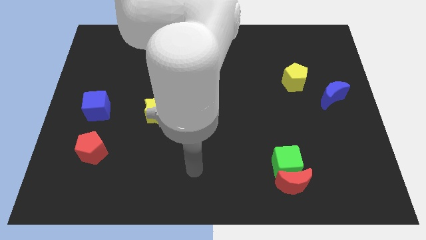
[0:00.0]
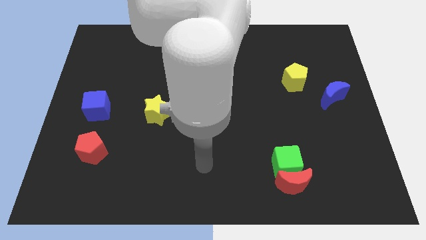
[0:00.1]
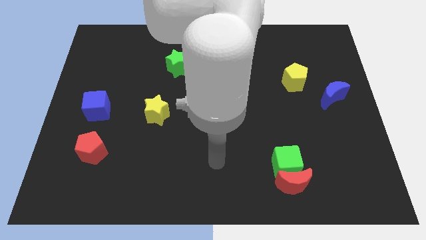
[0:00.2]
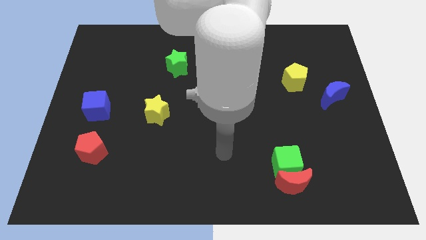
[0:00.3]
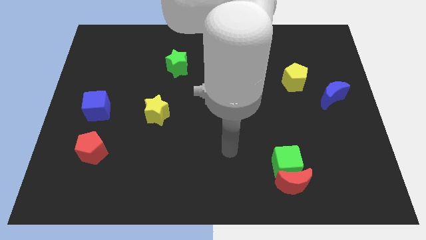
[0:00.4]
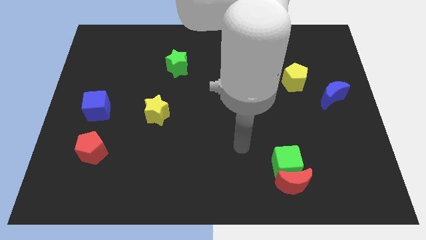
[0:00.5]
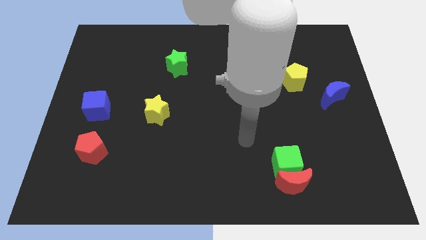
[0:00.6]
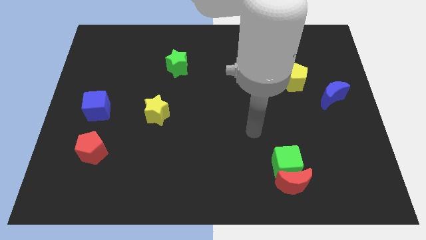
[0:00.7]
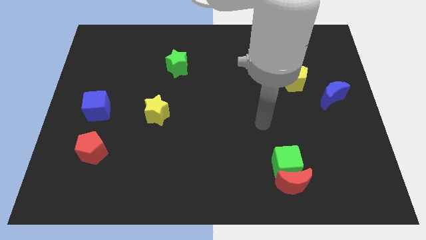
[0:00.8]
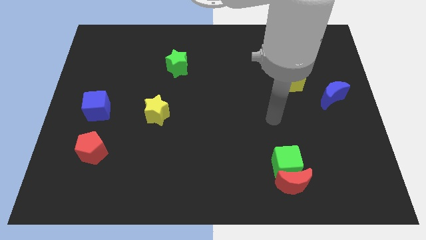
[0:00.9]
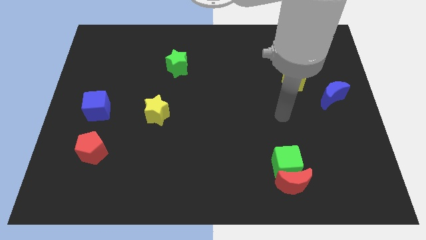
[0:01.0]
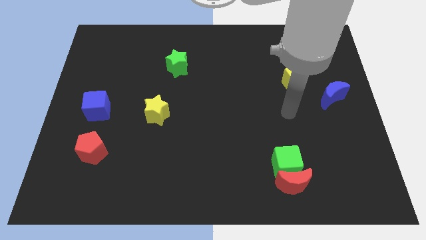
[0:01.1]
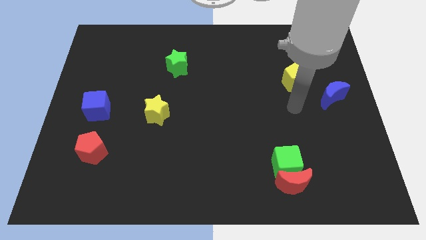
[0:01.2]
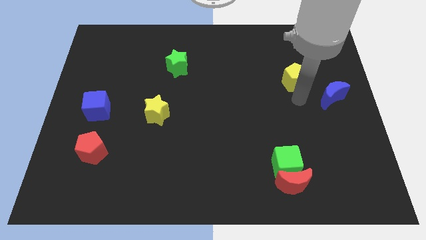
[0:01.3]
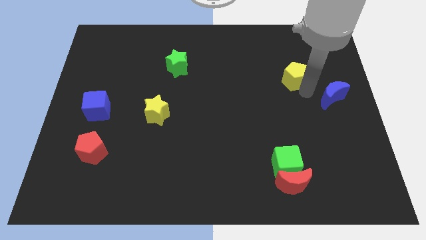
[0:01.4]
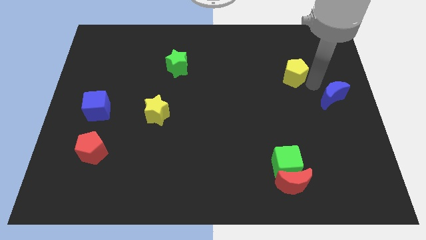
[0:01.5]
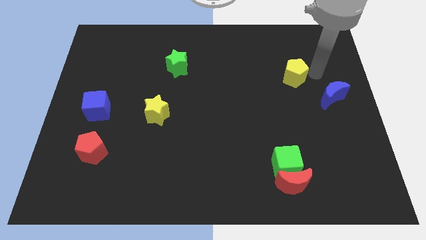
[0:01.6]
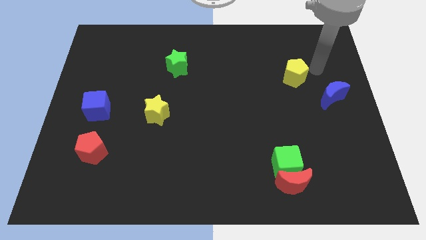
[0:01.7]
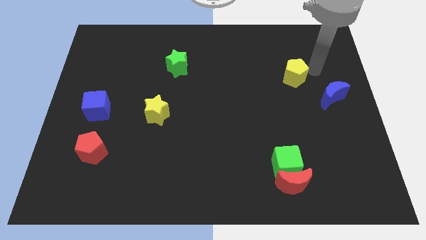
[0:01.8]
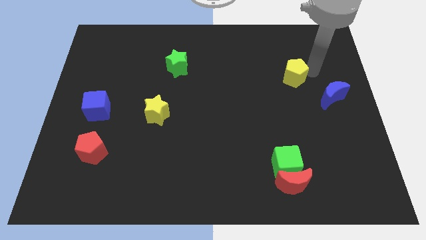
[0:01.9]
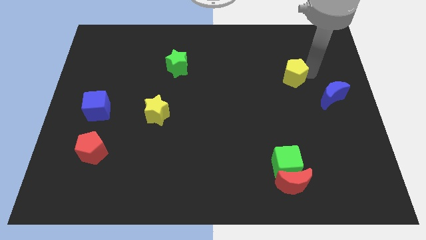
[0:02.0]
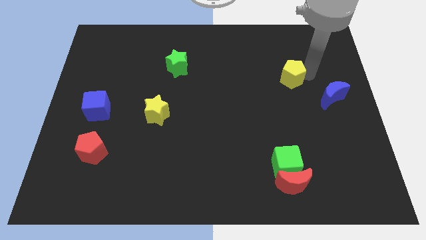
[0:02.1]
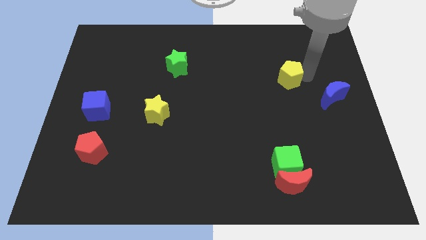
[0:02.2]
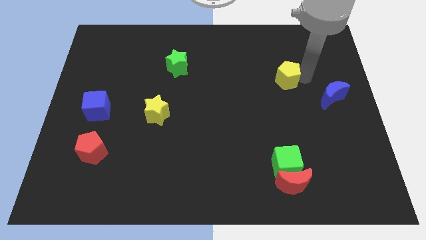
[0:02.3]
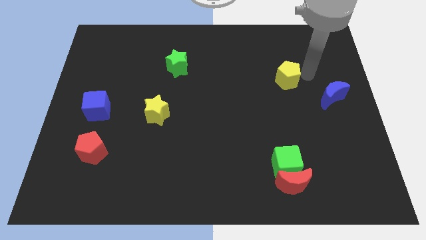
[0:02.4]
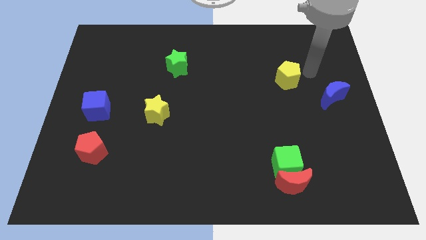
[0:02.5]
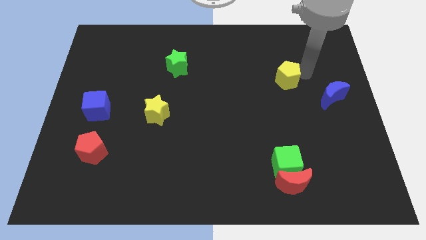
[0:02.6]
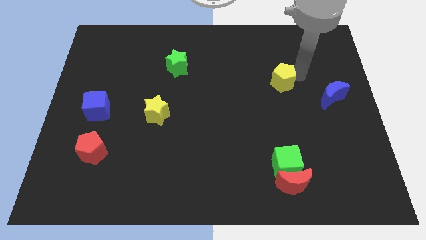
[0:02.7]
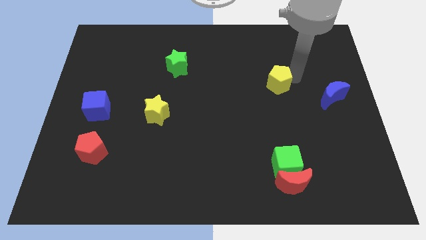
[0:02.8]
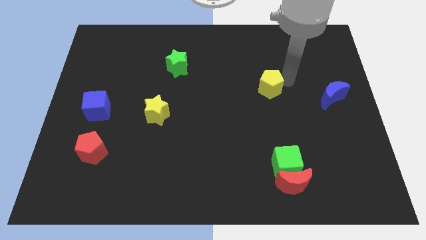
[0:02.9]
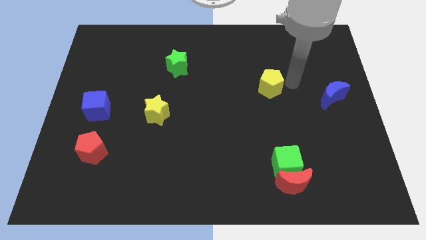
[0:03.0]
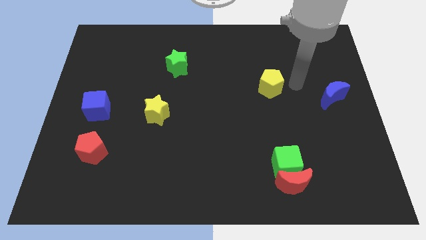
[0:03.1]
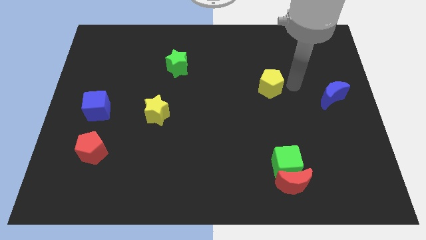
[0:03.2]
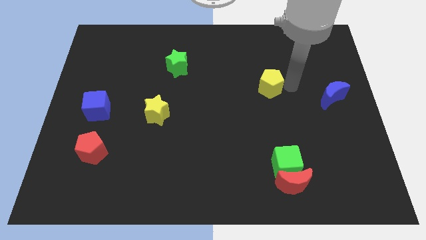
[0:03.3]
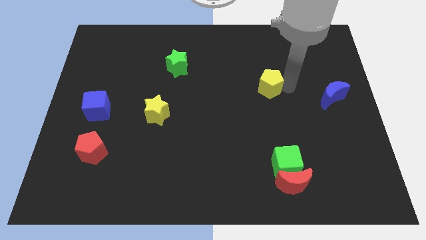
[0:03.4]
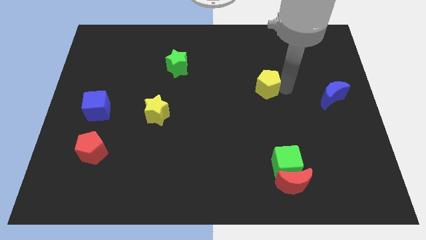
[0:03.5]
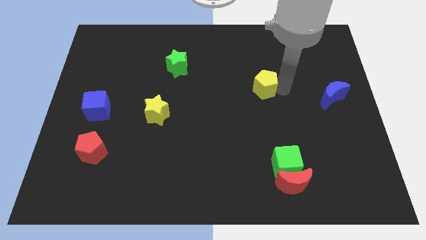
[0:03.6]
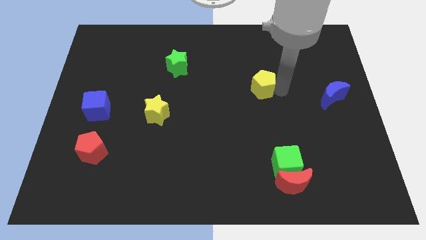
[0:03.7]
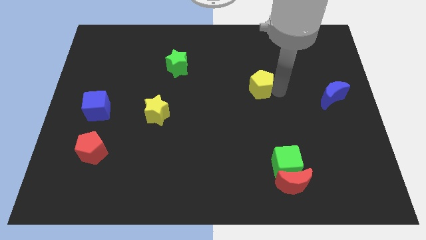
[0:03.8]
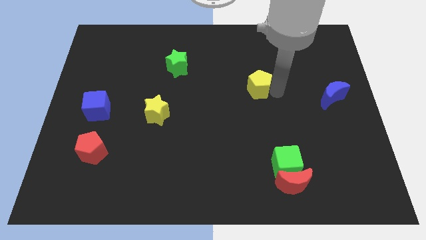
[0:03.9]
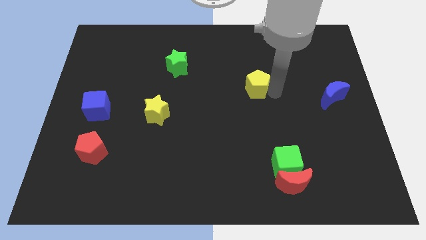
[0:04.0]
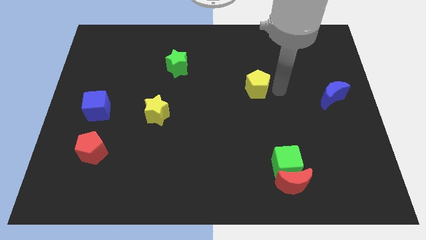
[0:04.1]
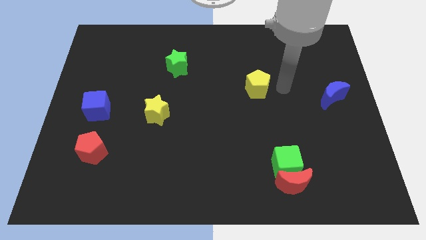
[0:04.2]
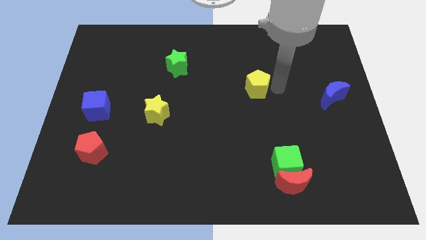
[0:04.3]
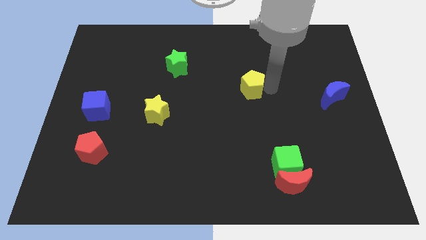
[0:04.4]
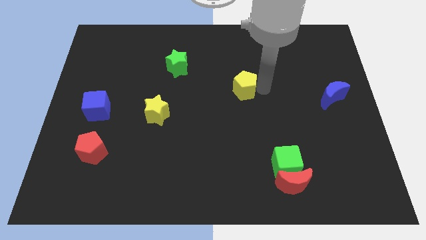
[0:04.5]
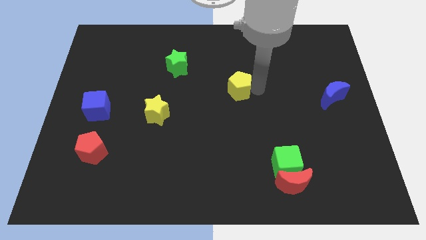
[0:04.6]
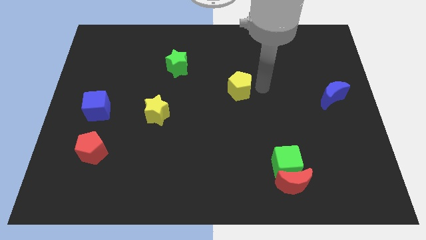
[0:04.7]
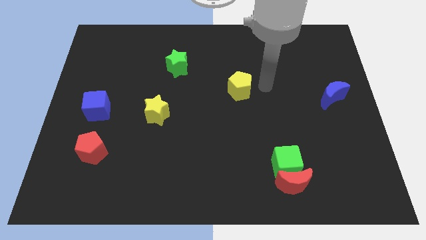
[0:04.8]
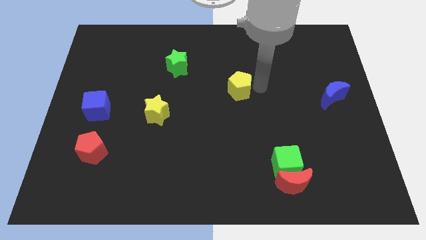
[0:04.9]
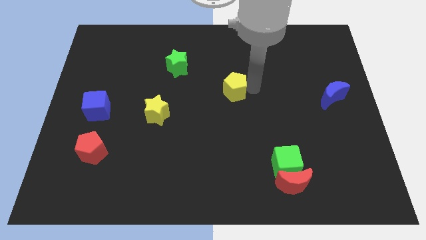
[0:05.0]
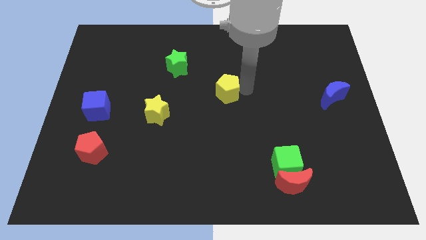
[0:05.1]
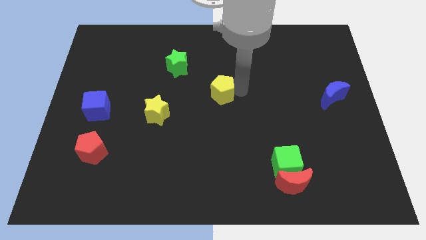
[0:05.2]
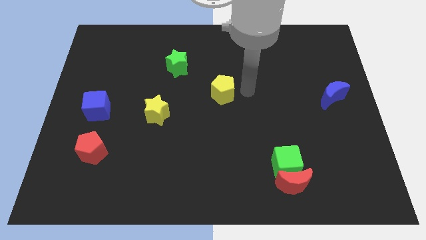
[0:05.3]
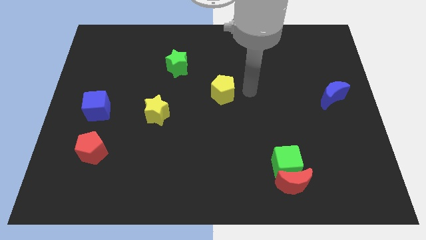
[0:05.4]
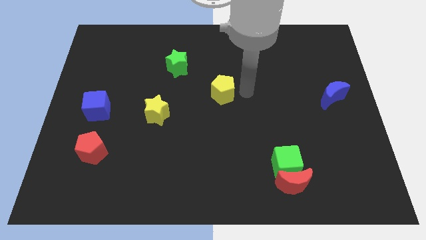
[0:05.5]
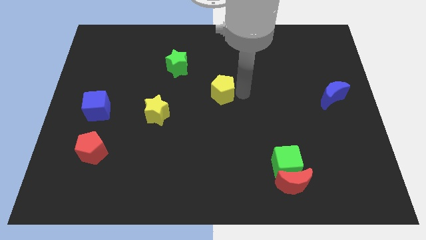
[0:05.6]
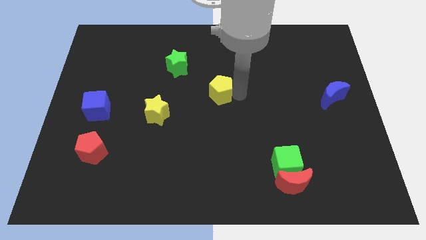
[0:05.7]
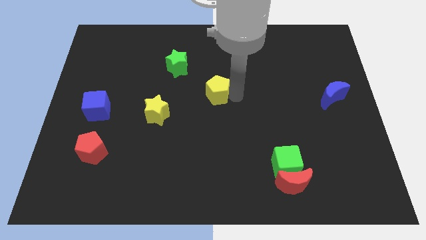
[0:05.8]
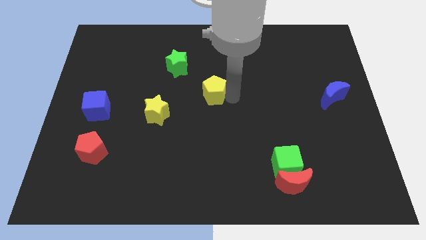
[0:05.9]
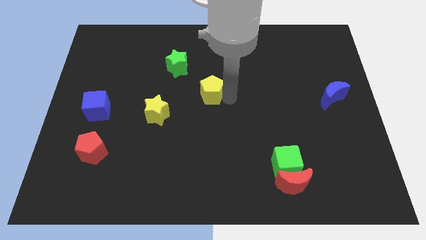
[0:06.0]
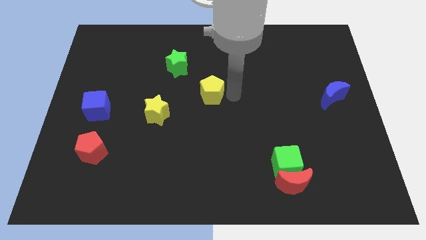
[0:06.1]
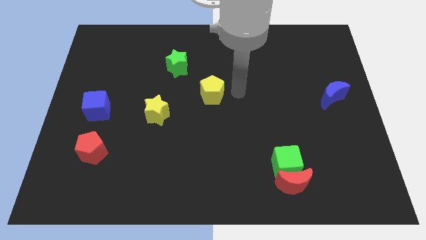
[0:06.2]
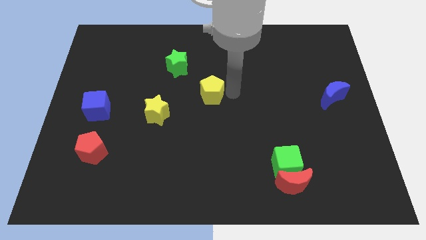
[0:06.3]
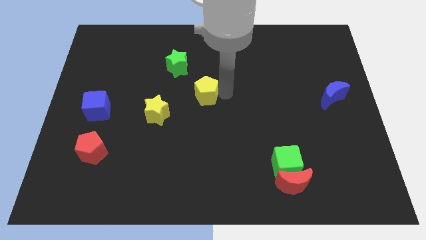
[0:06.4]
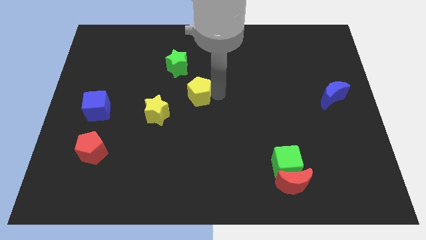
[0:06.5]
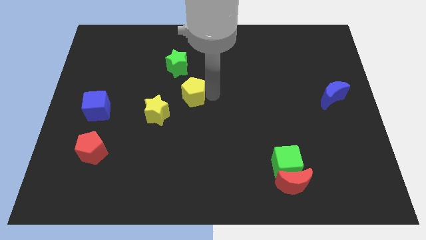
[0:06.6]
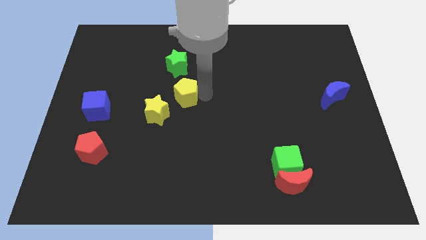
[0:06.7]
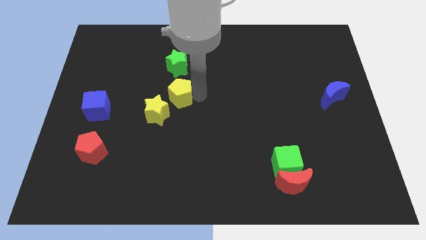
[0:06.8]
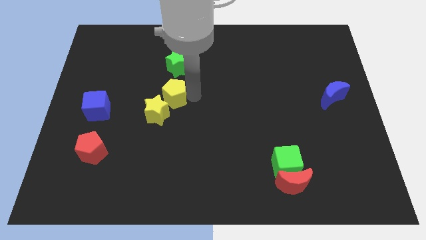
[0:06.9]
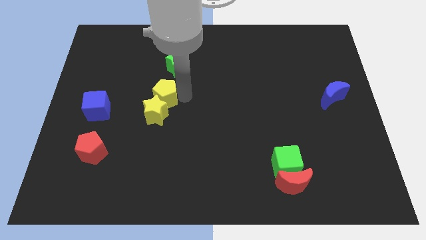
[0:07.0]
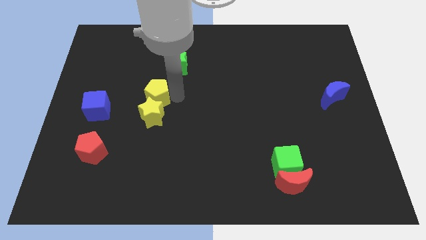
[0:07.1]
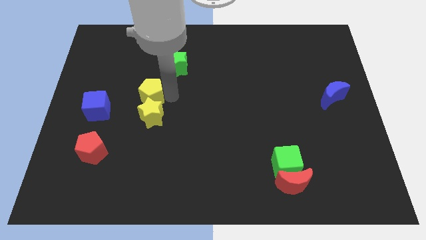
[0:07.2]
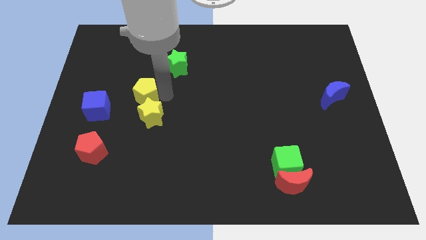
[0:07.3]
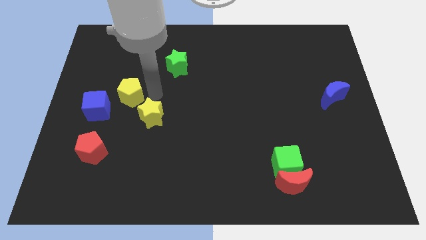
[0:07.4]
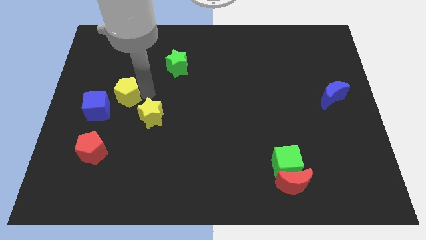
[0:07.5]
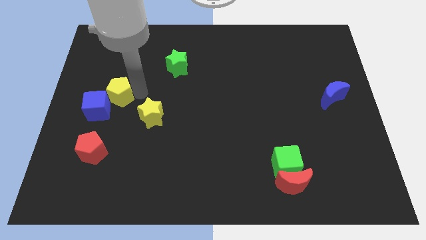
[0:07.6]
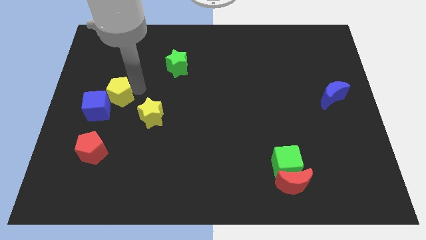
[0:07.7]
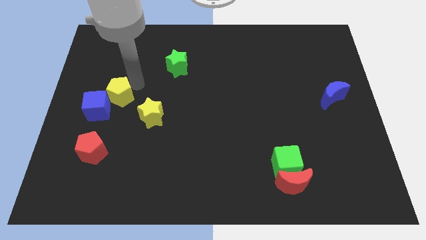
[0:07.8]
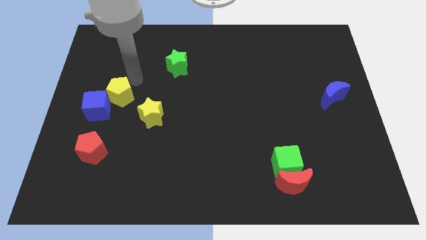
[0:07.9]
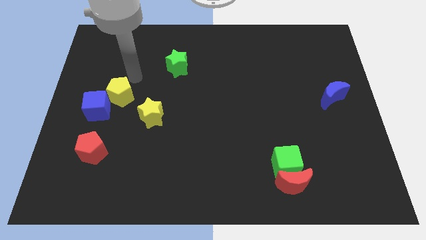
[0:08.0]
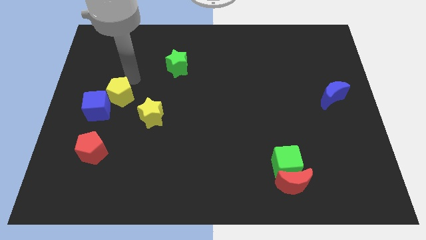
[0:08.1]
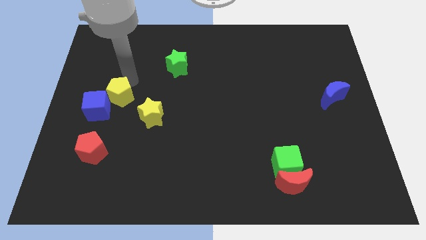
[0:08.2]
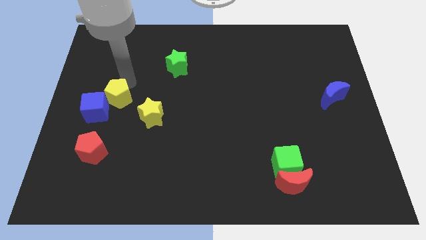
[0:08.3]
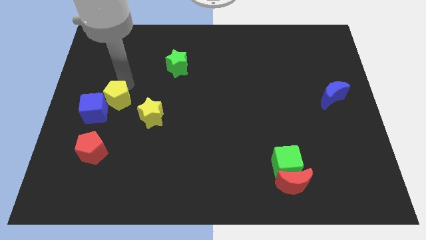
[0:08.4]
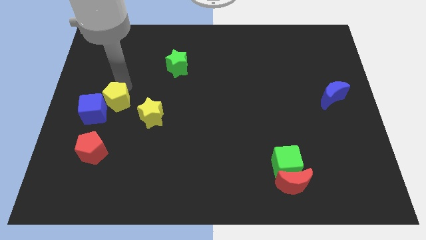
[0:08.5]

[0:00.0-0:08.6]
move the yellow pentagon to the left of the yellow star
